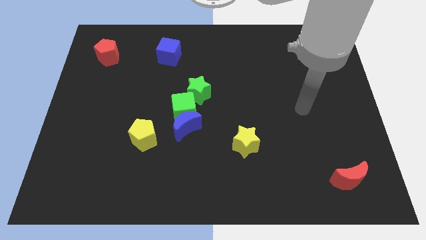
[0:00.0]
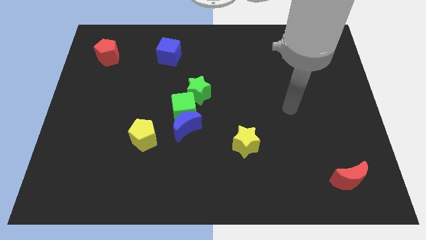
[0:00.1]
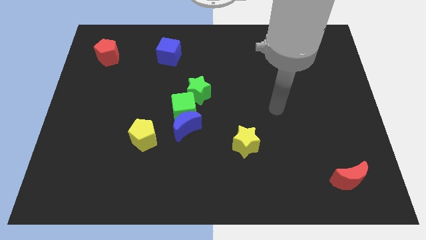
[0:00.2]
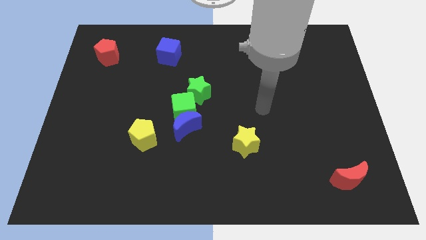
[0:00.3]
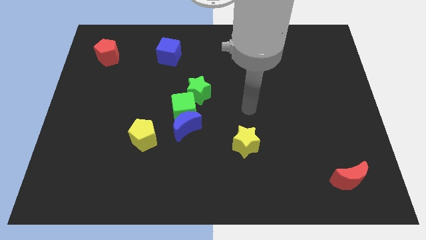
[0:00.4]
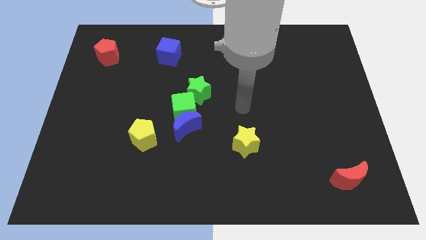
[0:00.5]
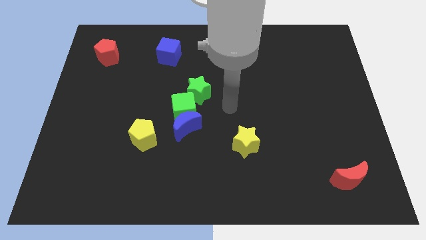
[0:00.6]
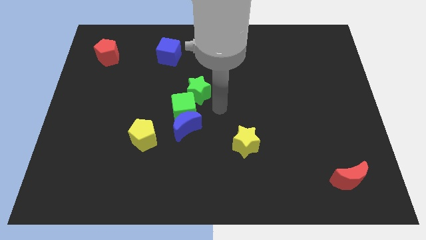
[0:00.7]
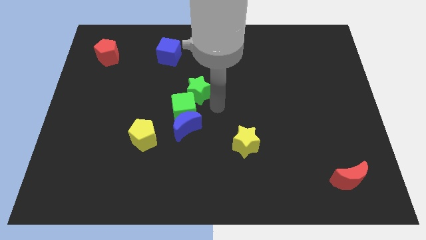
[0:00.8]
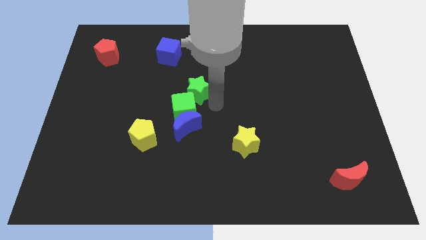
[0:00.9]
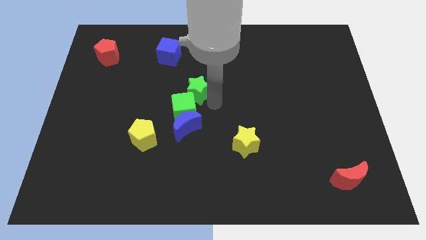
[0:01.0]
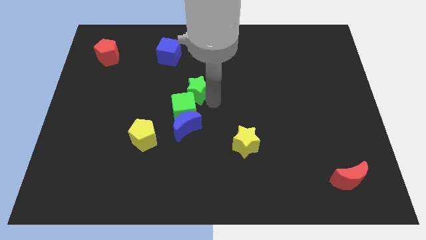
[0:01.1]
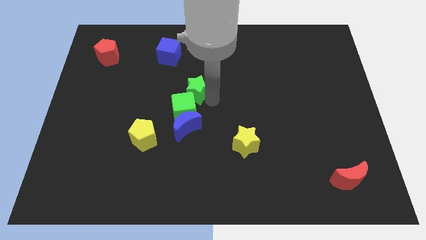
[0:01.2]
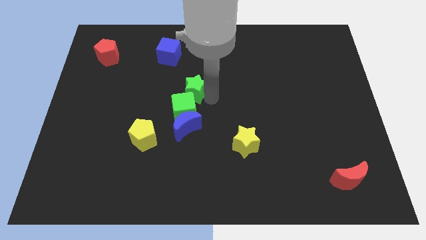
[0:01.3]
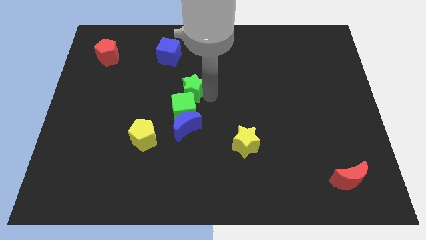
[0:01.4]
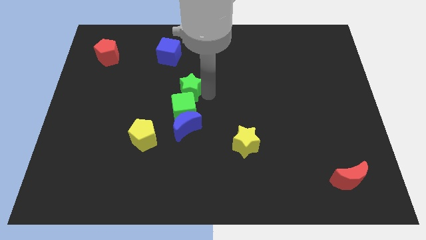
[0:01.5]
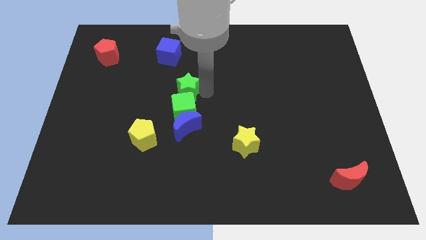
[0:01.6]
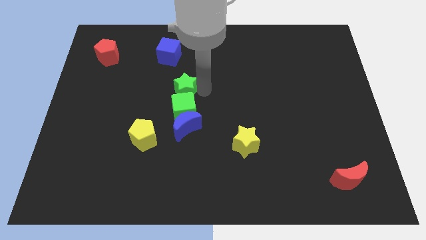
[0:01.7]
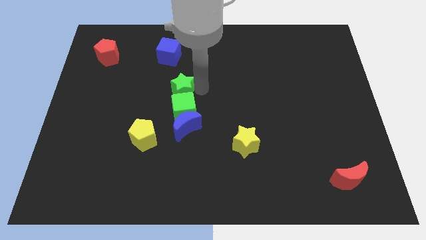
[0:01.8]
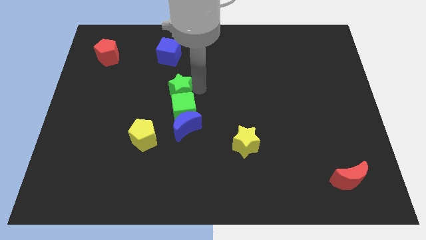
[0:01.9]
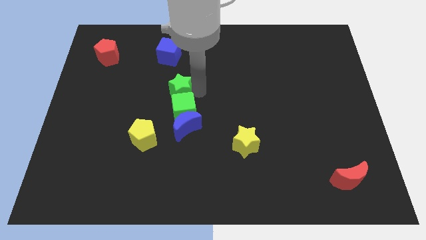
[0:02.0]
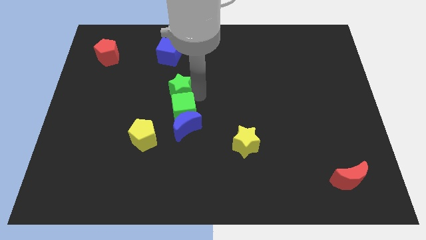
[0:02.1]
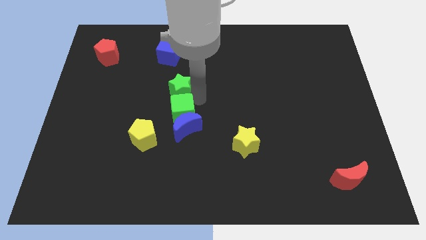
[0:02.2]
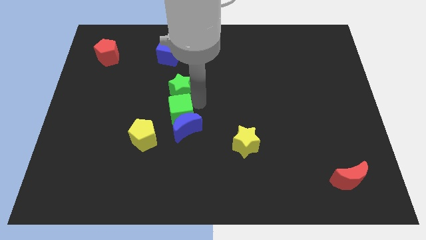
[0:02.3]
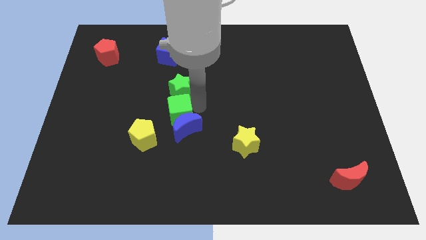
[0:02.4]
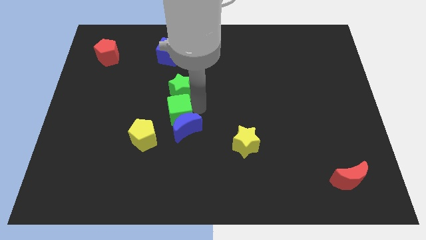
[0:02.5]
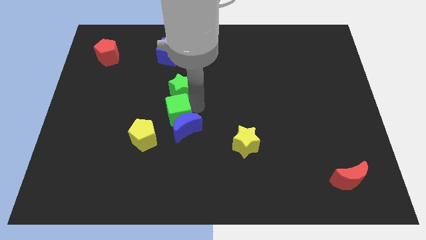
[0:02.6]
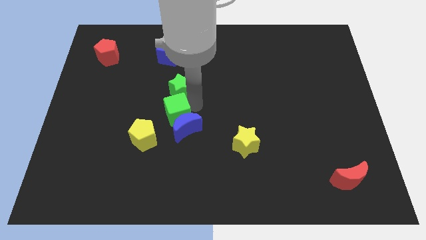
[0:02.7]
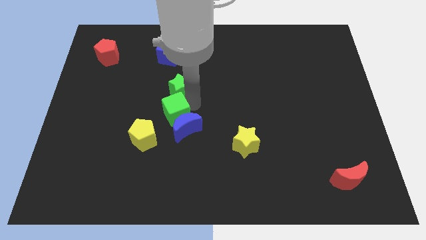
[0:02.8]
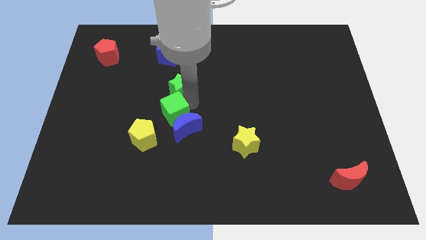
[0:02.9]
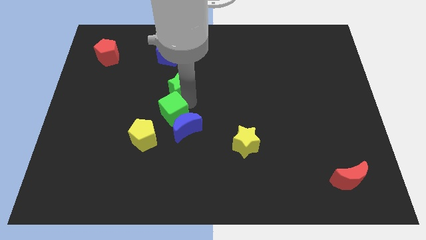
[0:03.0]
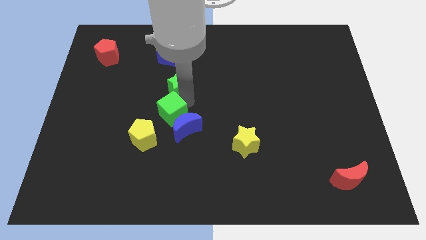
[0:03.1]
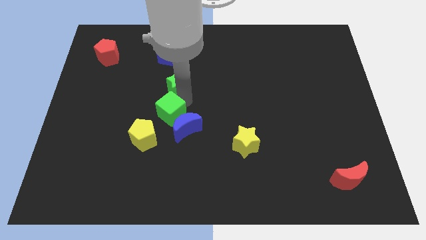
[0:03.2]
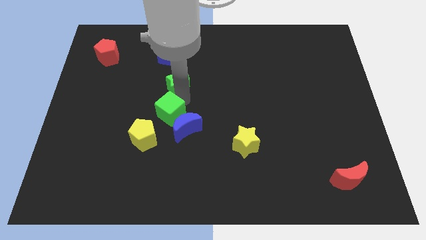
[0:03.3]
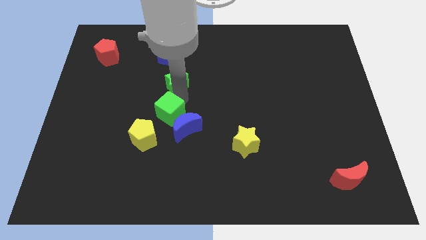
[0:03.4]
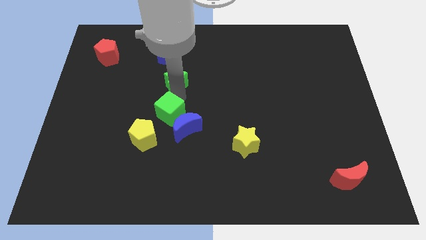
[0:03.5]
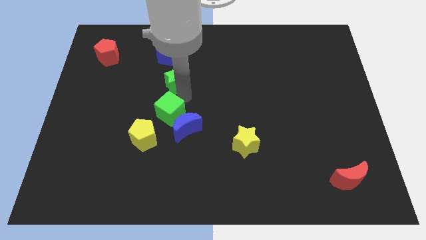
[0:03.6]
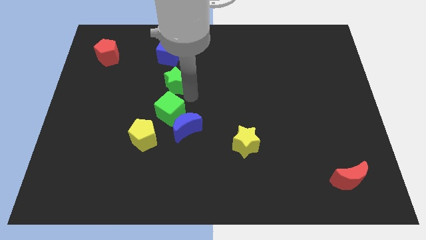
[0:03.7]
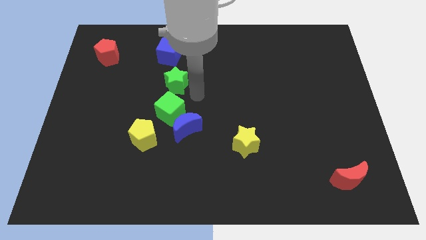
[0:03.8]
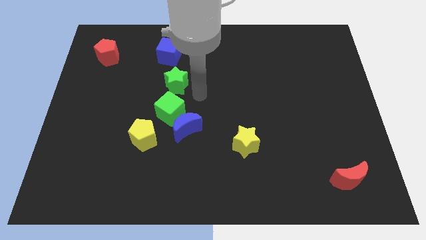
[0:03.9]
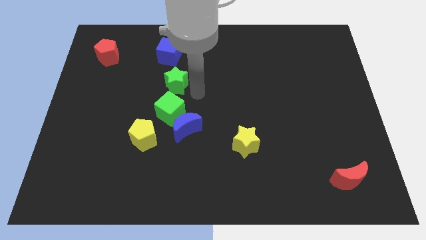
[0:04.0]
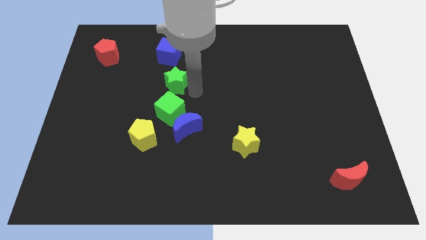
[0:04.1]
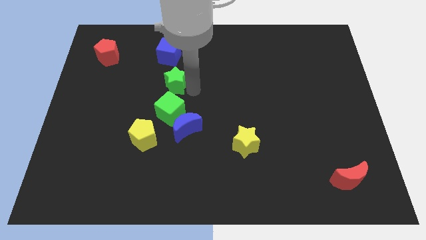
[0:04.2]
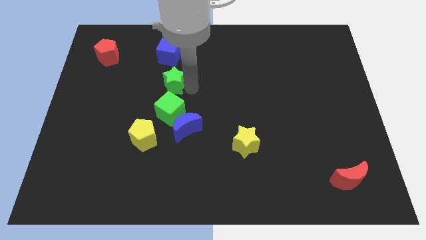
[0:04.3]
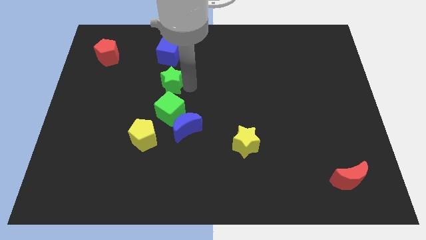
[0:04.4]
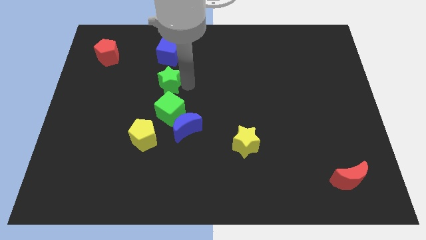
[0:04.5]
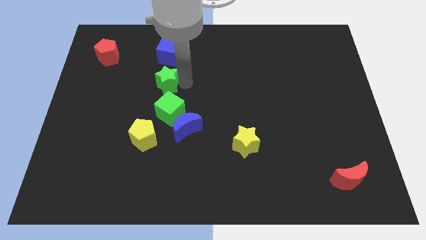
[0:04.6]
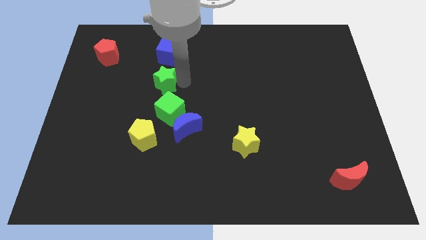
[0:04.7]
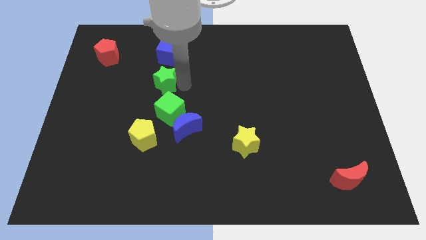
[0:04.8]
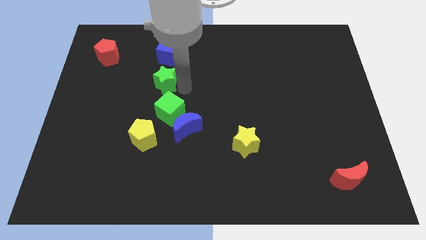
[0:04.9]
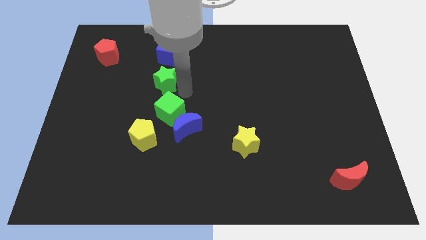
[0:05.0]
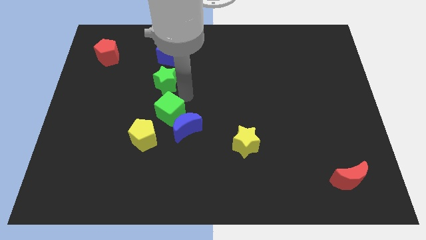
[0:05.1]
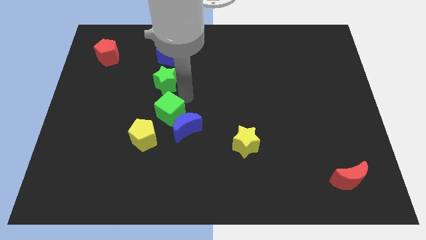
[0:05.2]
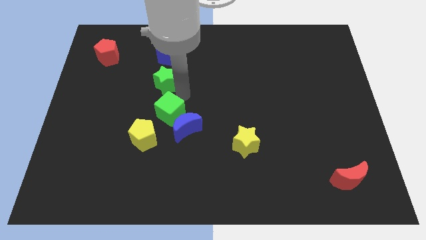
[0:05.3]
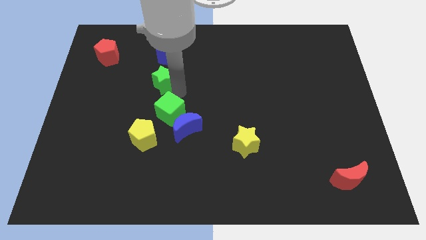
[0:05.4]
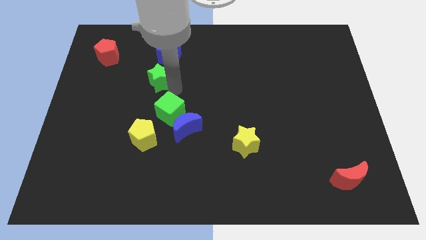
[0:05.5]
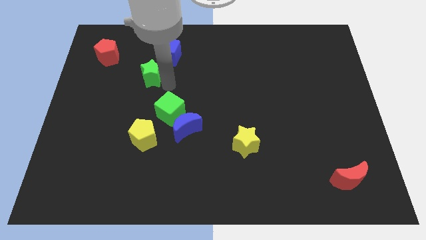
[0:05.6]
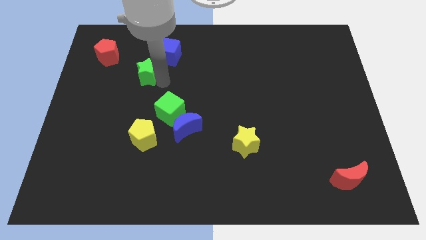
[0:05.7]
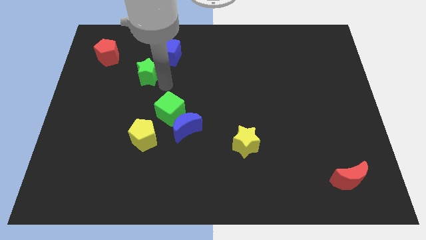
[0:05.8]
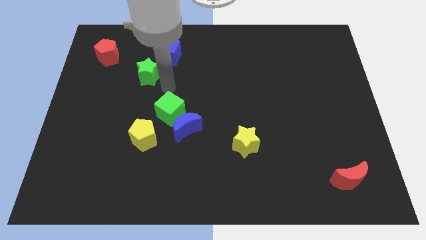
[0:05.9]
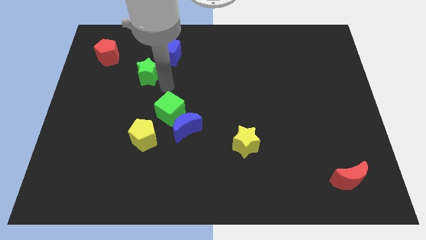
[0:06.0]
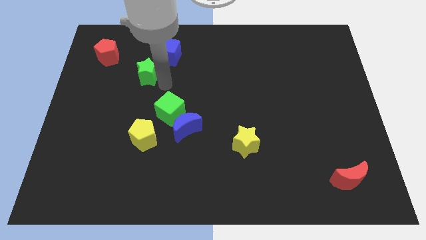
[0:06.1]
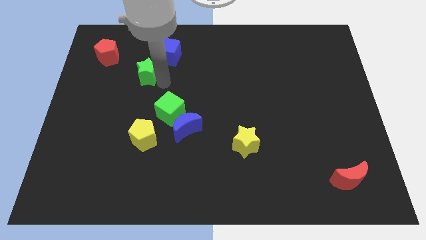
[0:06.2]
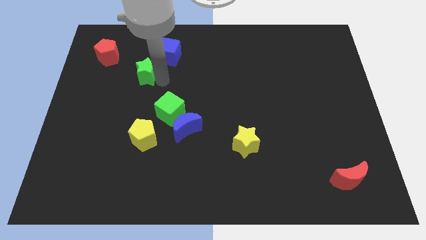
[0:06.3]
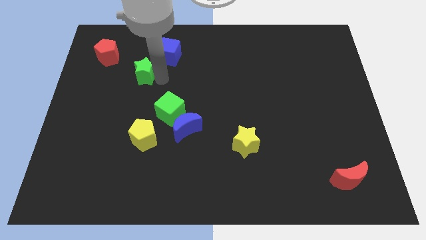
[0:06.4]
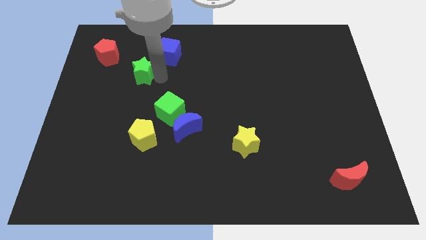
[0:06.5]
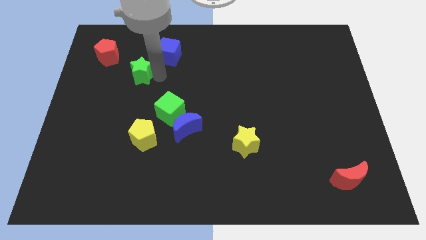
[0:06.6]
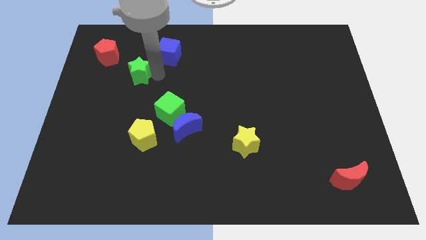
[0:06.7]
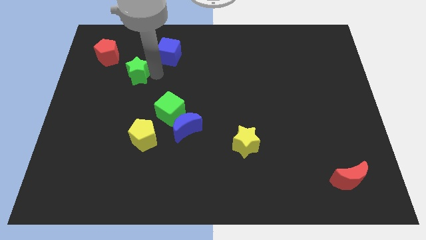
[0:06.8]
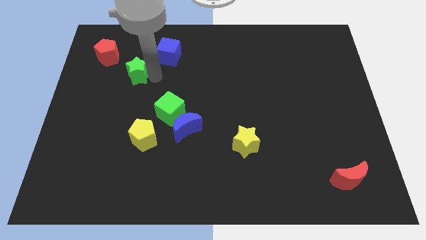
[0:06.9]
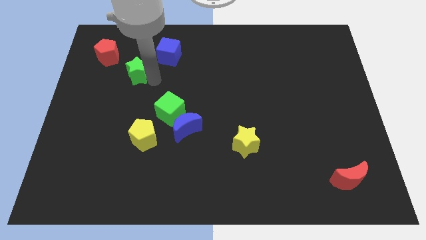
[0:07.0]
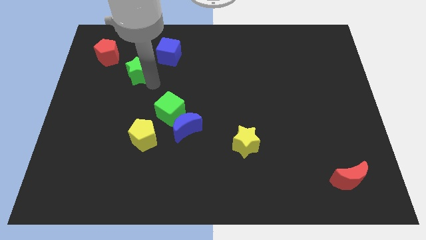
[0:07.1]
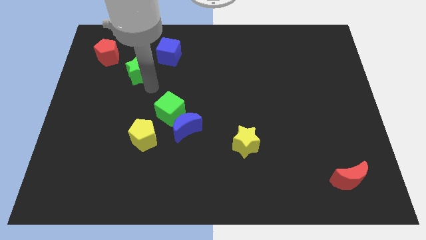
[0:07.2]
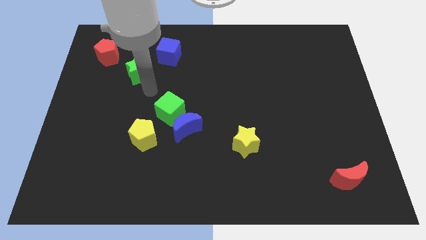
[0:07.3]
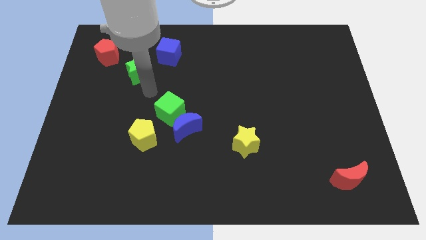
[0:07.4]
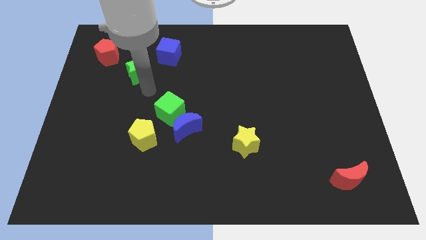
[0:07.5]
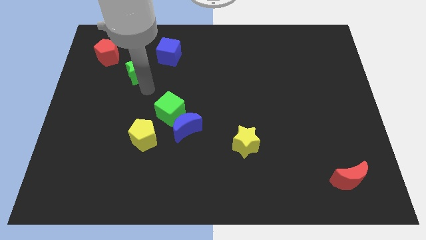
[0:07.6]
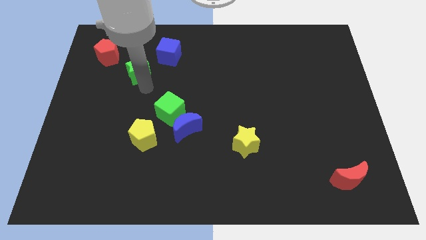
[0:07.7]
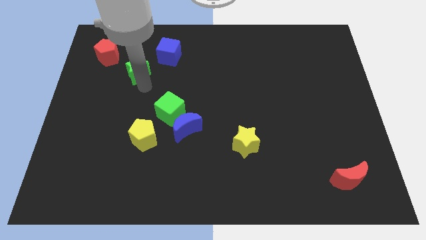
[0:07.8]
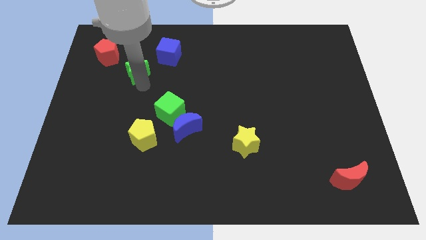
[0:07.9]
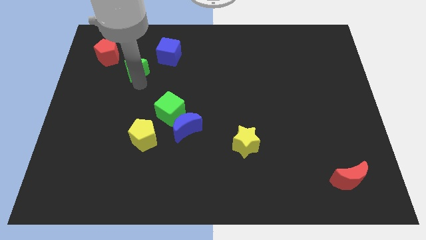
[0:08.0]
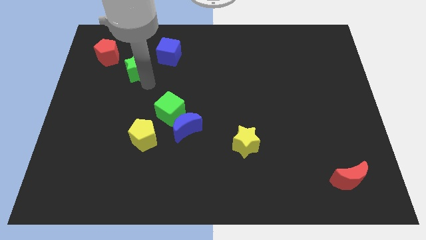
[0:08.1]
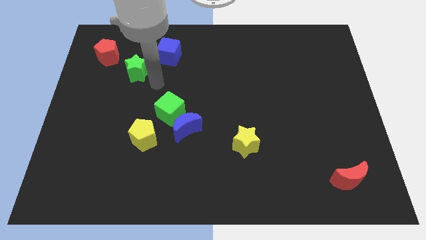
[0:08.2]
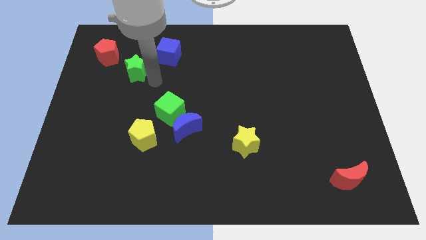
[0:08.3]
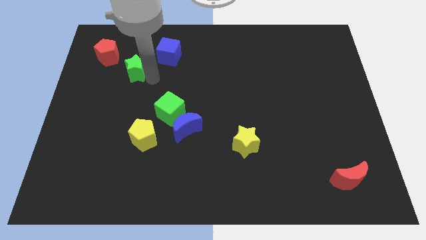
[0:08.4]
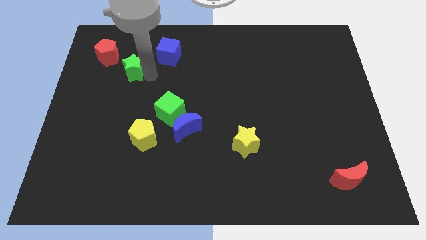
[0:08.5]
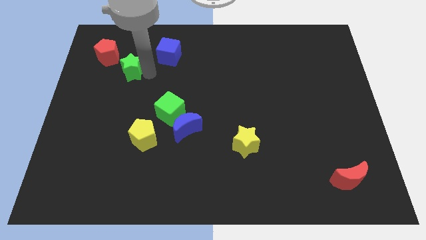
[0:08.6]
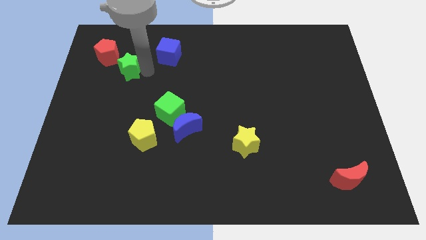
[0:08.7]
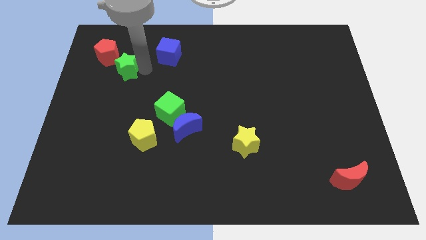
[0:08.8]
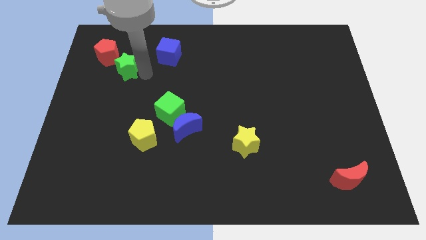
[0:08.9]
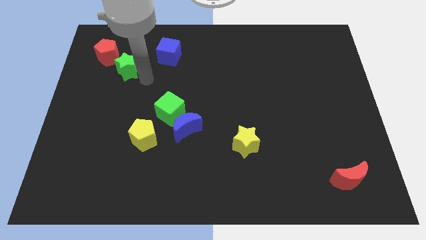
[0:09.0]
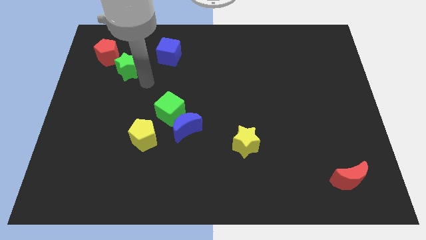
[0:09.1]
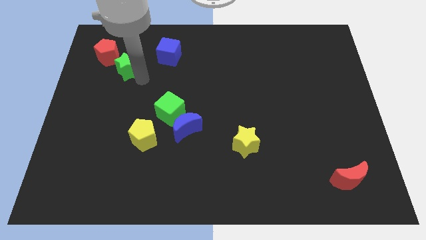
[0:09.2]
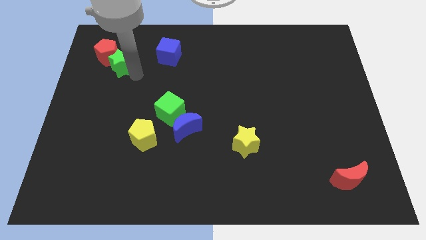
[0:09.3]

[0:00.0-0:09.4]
put the green star towards the red pentagon
